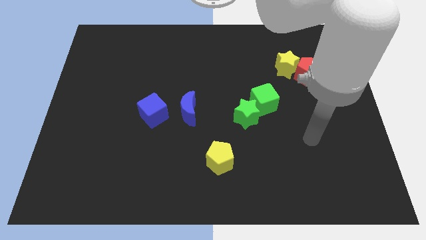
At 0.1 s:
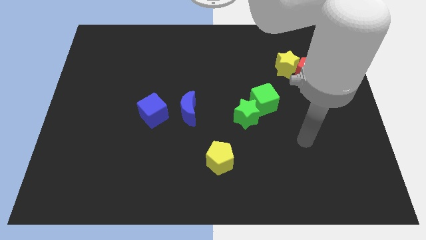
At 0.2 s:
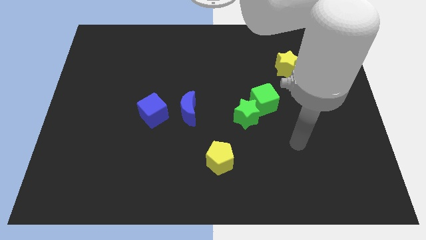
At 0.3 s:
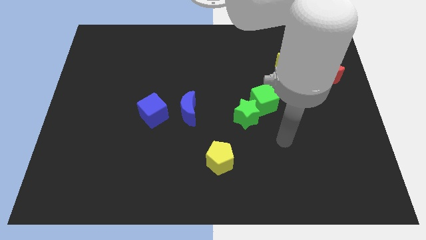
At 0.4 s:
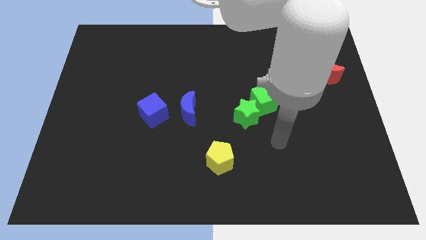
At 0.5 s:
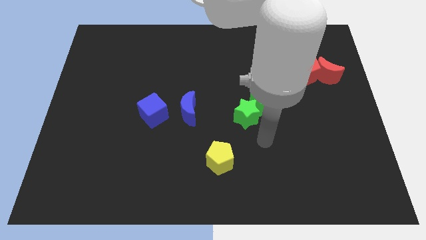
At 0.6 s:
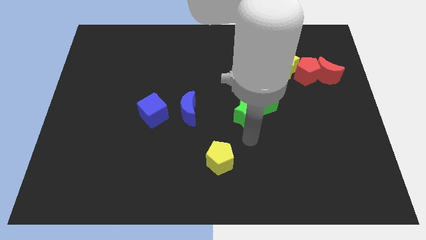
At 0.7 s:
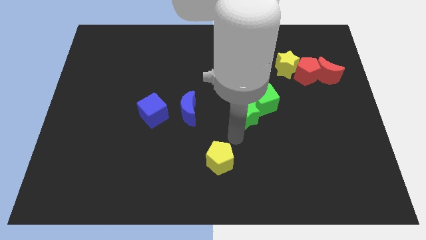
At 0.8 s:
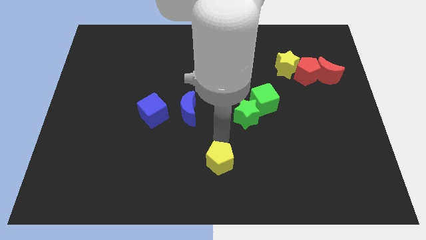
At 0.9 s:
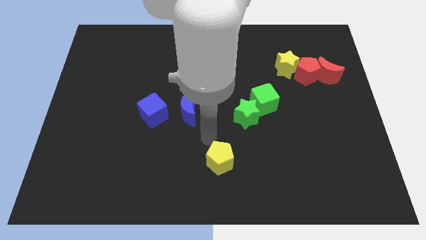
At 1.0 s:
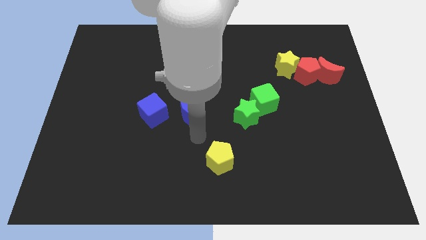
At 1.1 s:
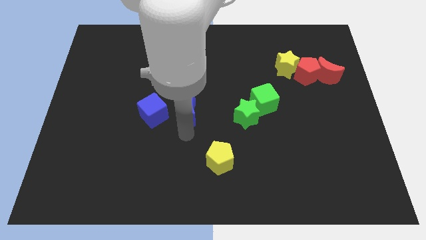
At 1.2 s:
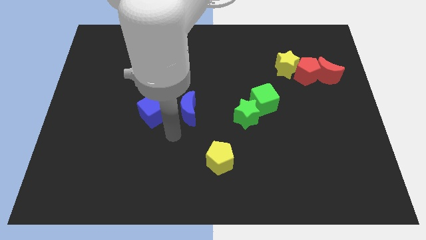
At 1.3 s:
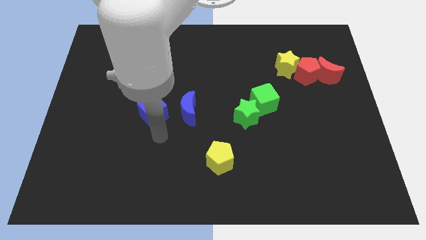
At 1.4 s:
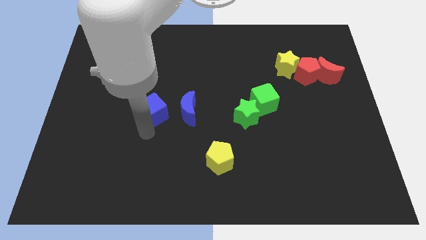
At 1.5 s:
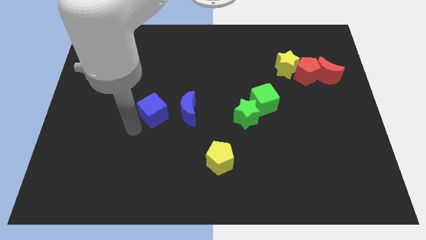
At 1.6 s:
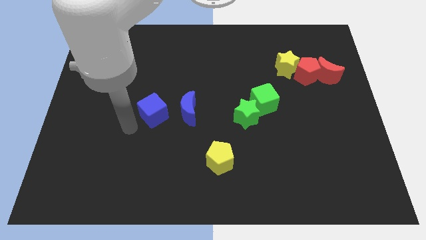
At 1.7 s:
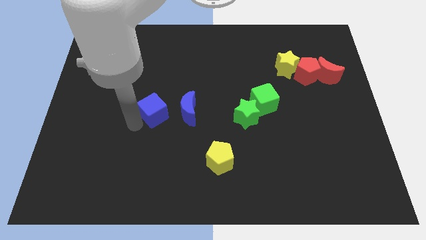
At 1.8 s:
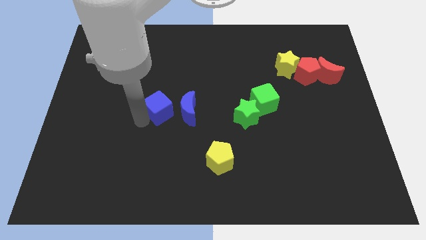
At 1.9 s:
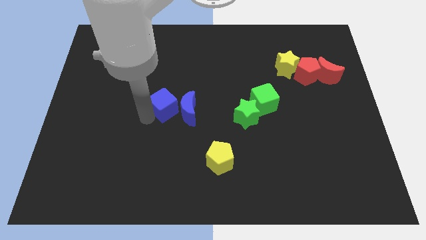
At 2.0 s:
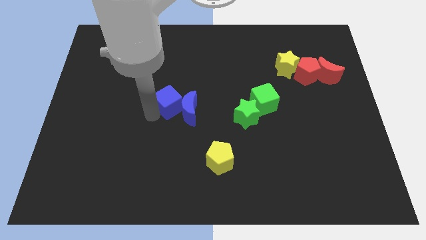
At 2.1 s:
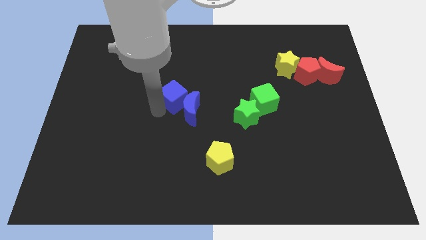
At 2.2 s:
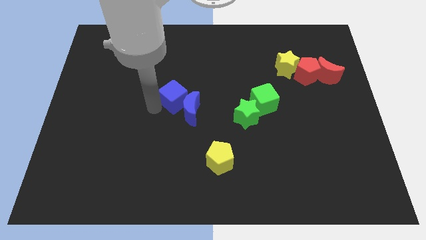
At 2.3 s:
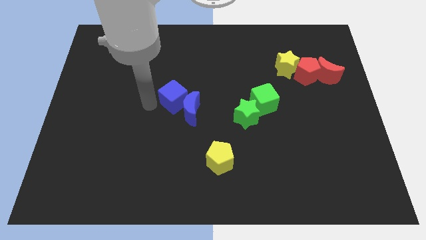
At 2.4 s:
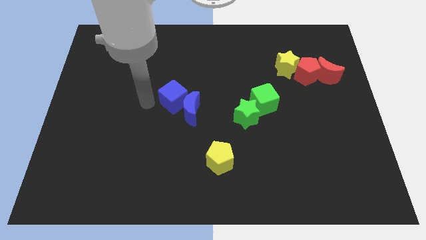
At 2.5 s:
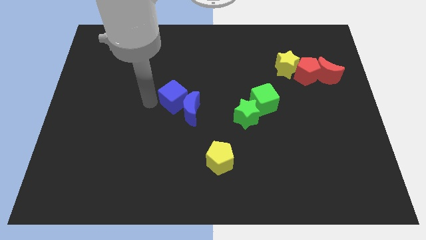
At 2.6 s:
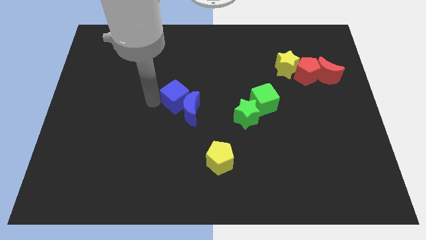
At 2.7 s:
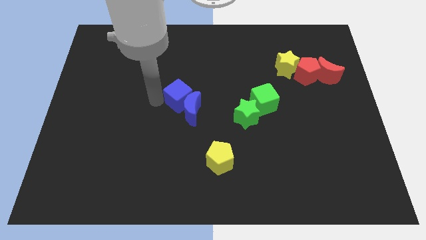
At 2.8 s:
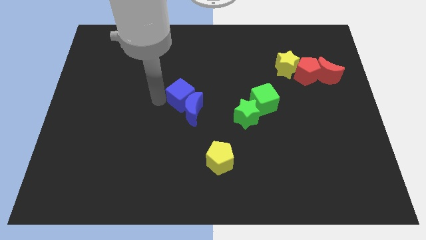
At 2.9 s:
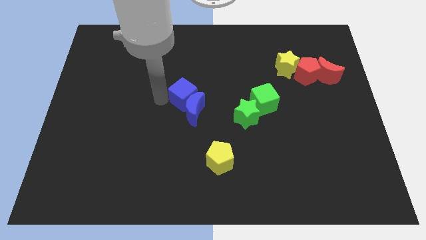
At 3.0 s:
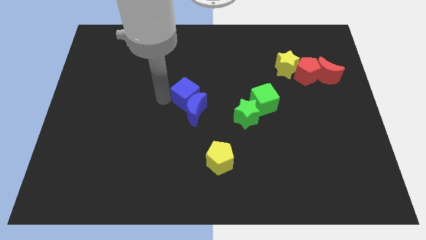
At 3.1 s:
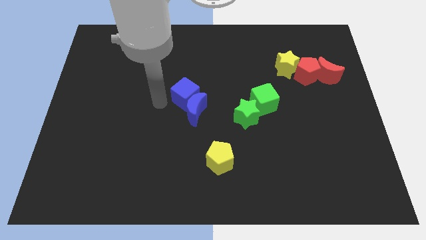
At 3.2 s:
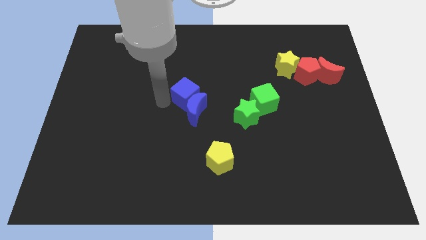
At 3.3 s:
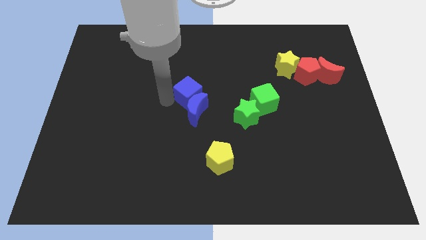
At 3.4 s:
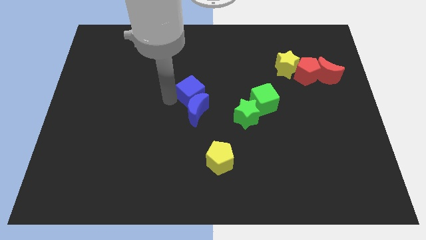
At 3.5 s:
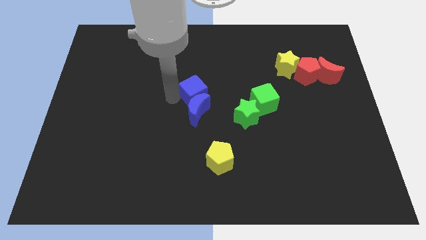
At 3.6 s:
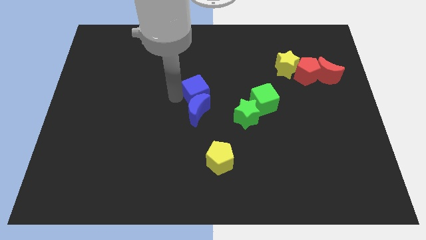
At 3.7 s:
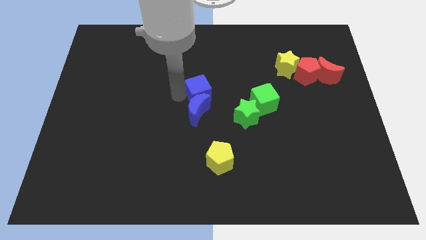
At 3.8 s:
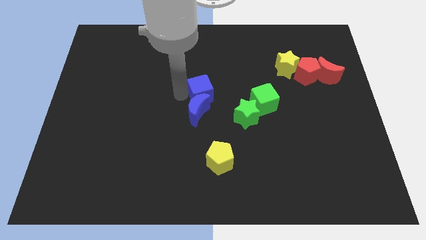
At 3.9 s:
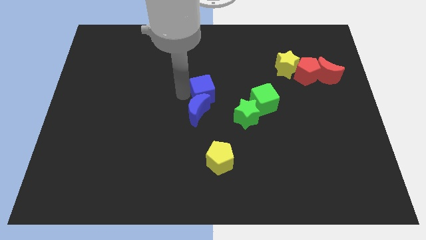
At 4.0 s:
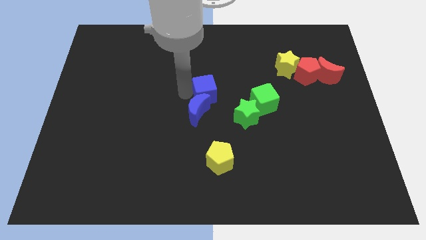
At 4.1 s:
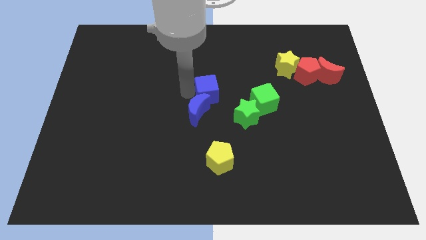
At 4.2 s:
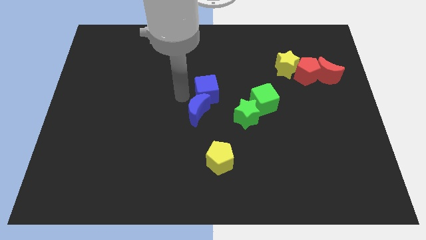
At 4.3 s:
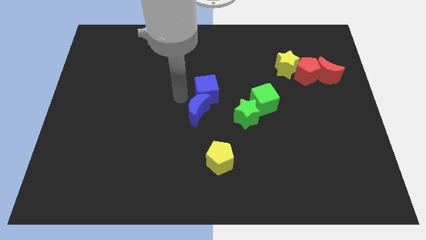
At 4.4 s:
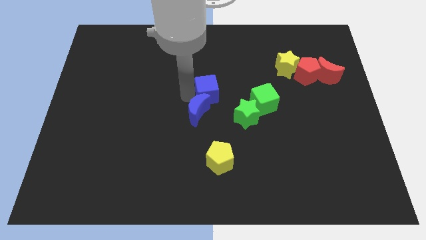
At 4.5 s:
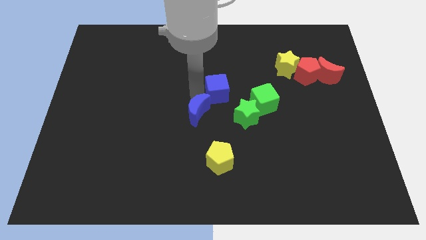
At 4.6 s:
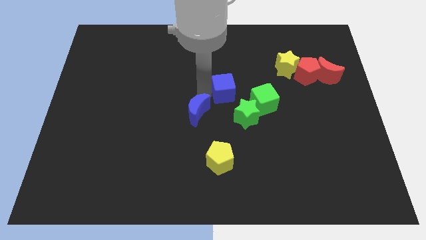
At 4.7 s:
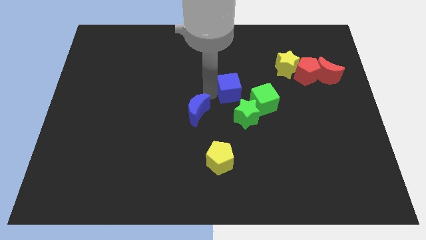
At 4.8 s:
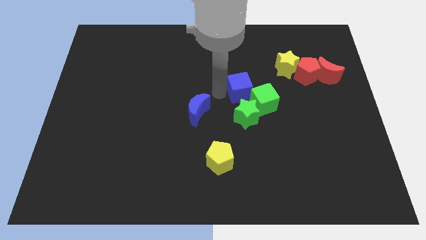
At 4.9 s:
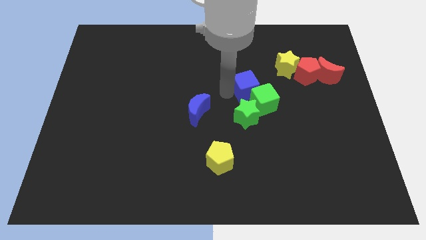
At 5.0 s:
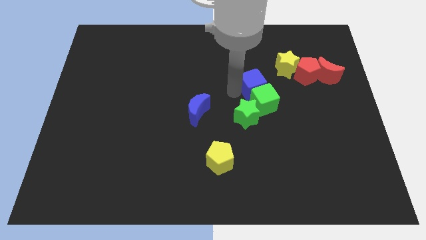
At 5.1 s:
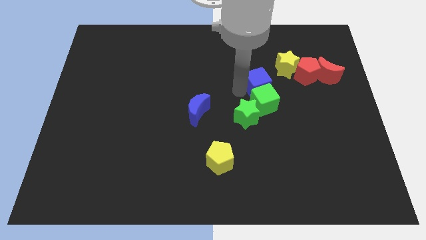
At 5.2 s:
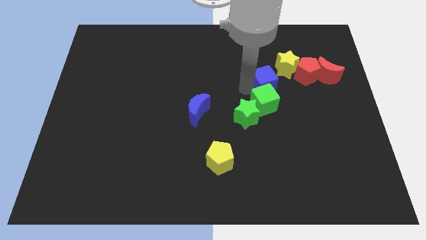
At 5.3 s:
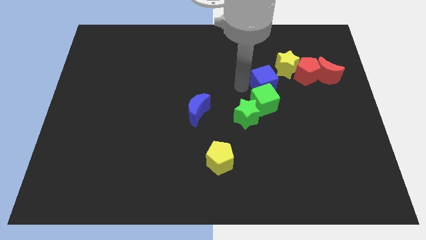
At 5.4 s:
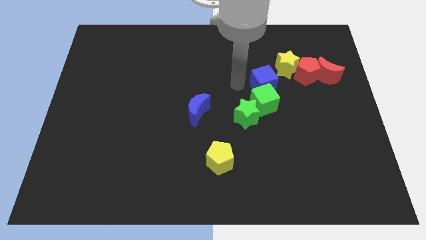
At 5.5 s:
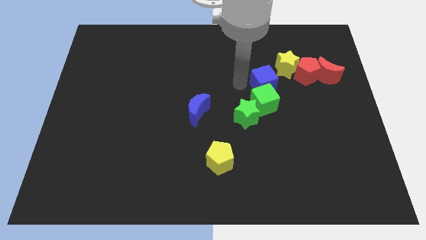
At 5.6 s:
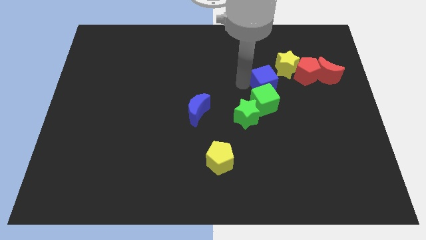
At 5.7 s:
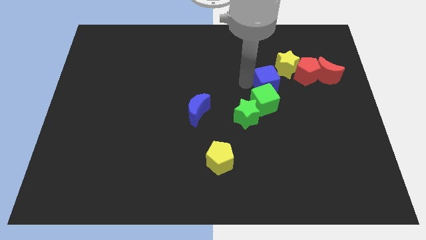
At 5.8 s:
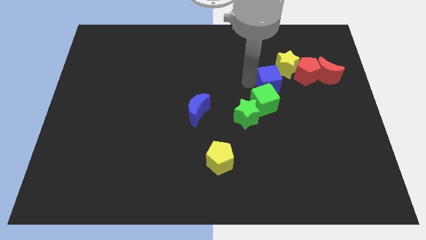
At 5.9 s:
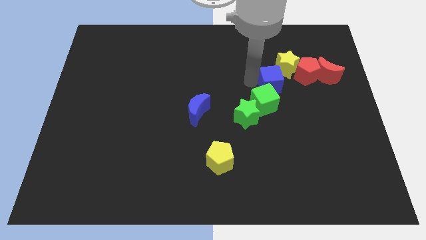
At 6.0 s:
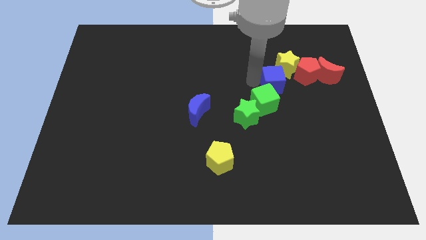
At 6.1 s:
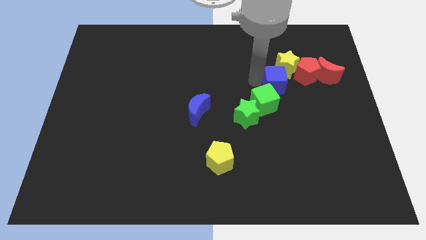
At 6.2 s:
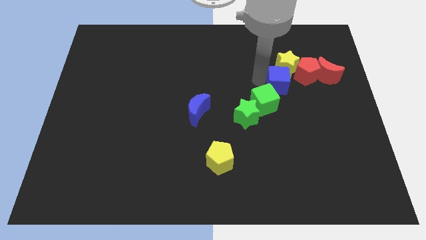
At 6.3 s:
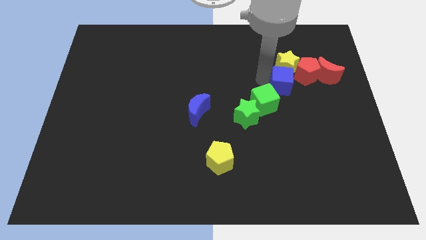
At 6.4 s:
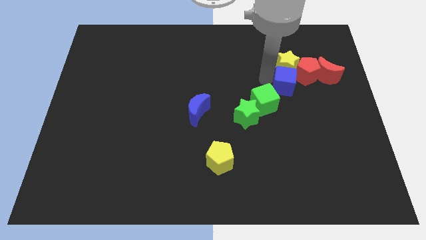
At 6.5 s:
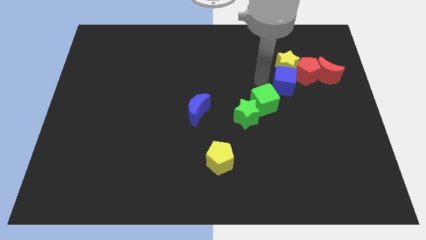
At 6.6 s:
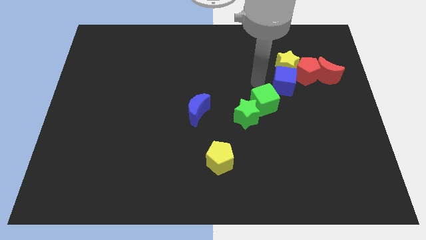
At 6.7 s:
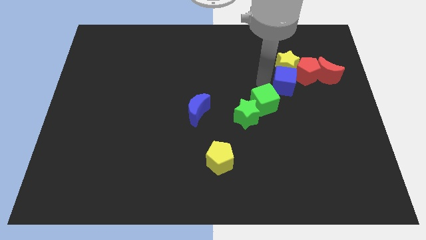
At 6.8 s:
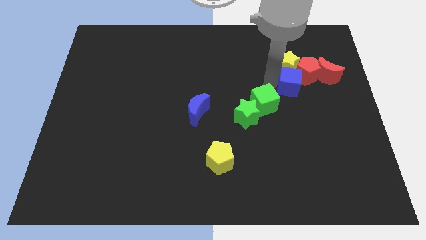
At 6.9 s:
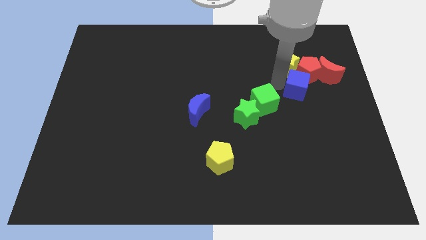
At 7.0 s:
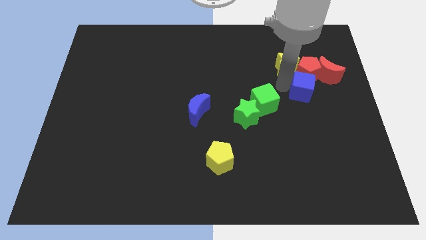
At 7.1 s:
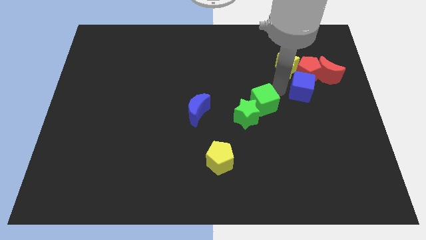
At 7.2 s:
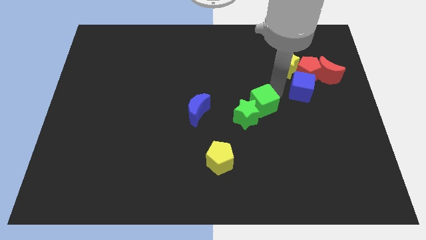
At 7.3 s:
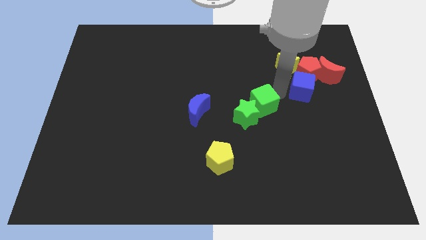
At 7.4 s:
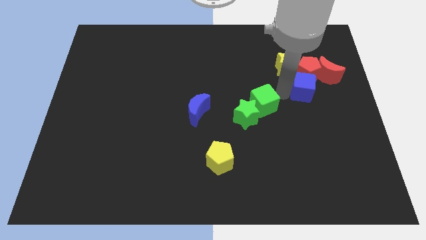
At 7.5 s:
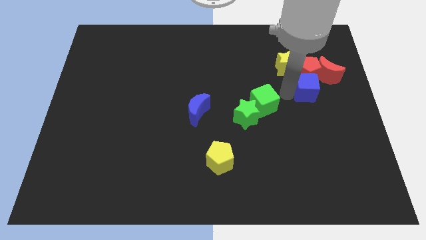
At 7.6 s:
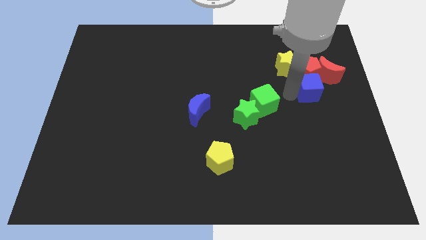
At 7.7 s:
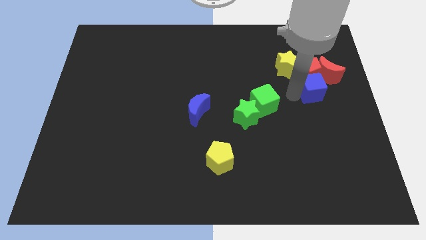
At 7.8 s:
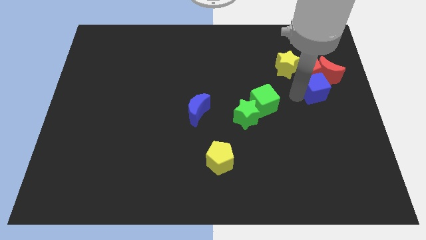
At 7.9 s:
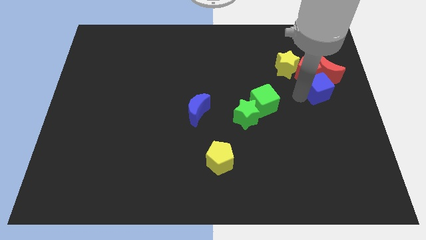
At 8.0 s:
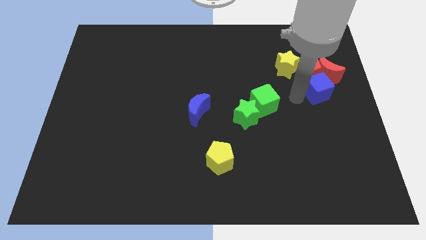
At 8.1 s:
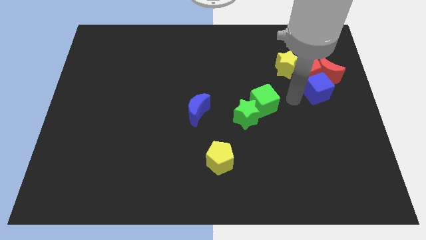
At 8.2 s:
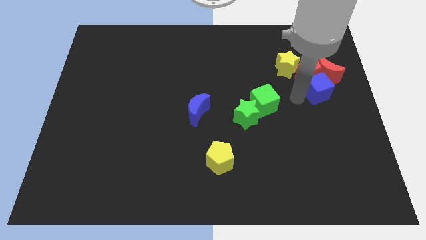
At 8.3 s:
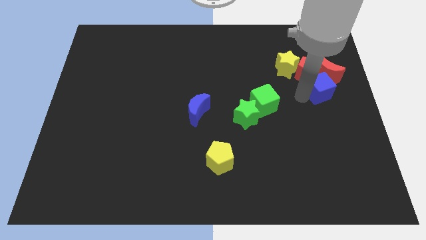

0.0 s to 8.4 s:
push the blue cube close to the red moon
